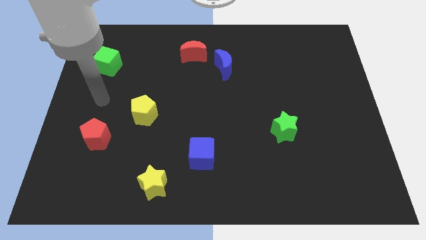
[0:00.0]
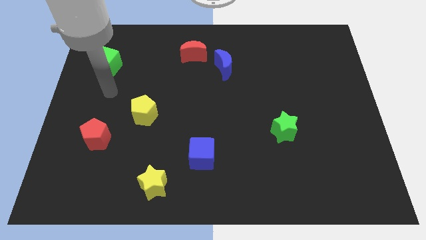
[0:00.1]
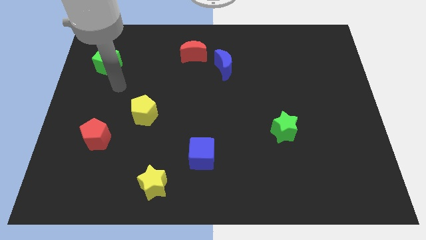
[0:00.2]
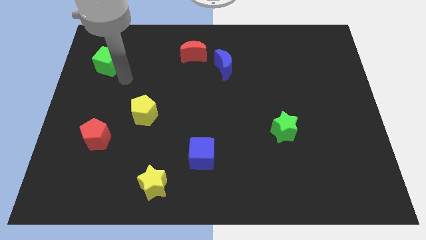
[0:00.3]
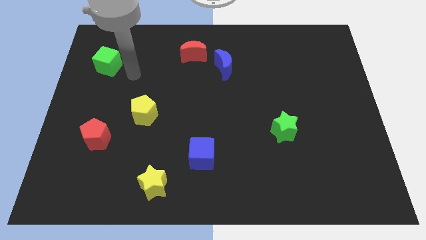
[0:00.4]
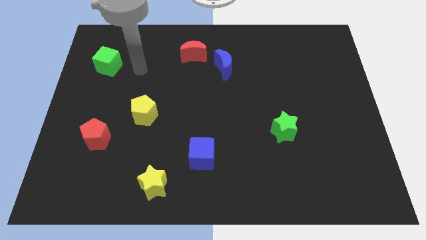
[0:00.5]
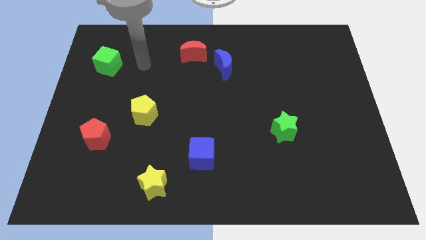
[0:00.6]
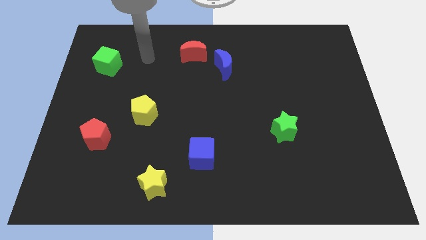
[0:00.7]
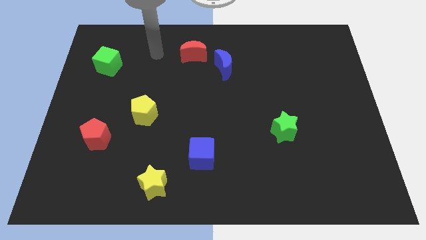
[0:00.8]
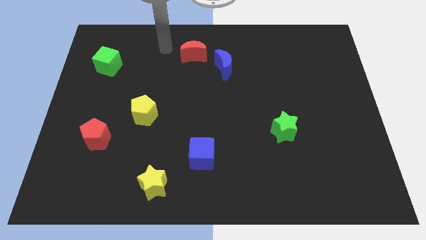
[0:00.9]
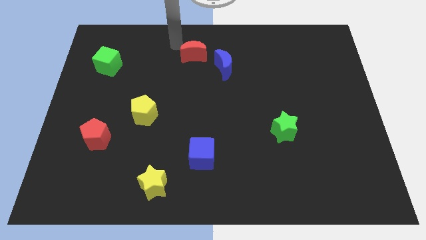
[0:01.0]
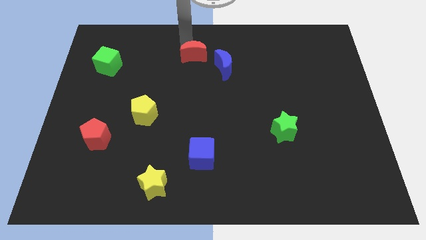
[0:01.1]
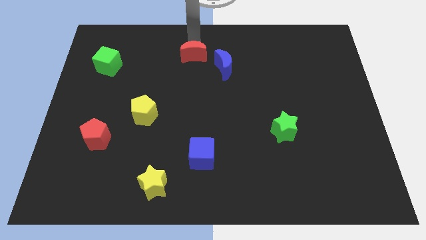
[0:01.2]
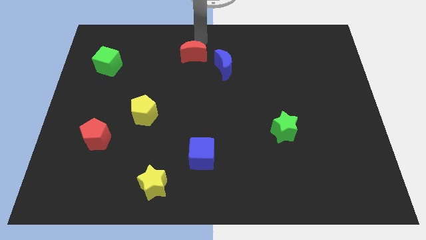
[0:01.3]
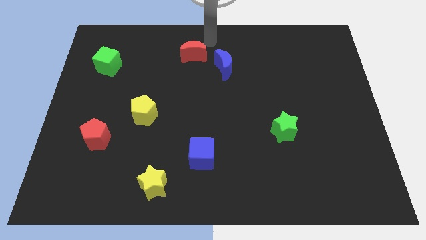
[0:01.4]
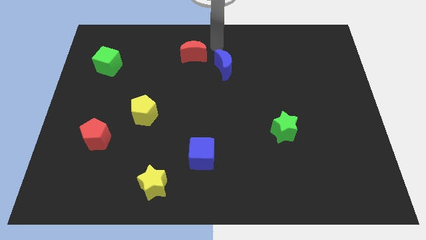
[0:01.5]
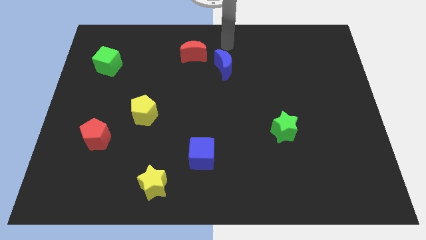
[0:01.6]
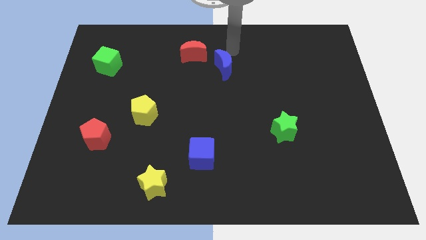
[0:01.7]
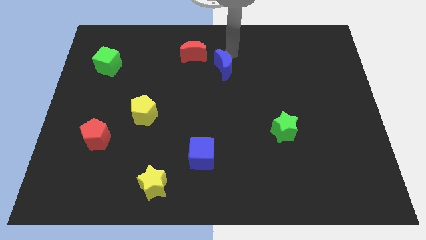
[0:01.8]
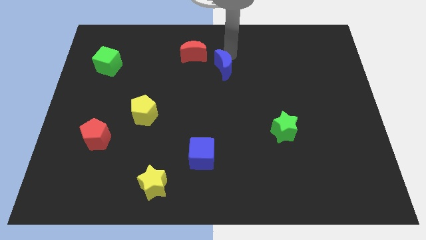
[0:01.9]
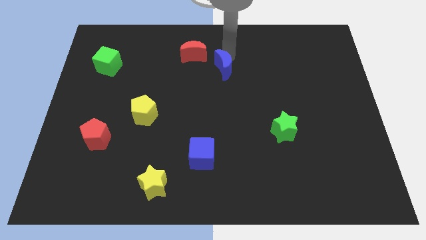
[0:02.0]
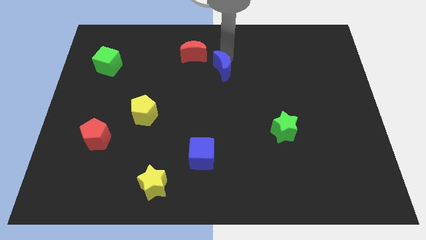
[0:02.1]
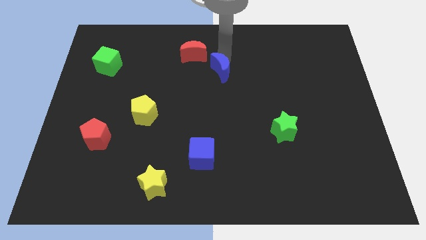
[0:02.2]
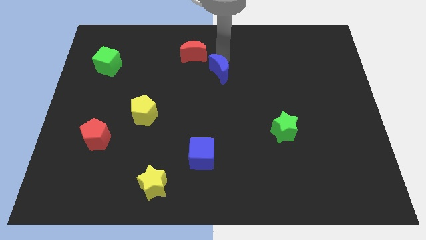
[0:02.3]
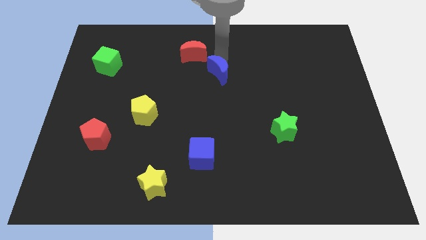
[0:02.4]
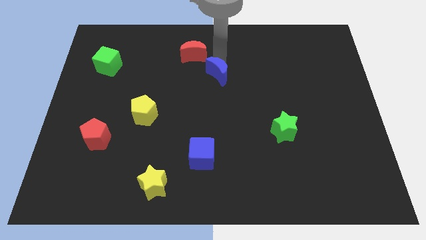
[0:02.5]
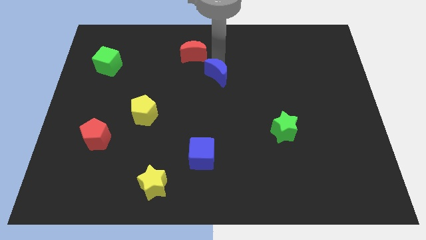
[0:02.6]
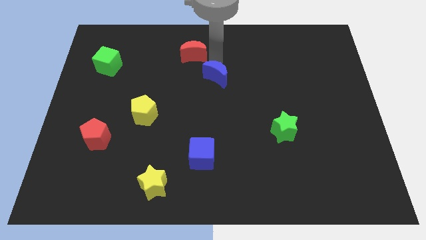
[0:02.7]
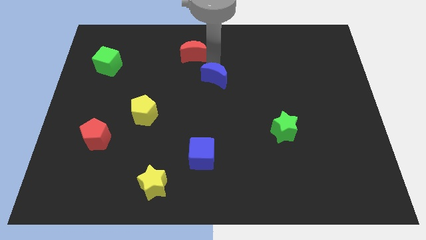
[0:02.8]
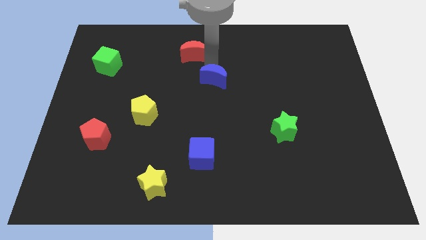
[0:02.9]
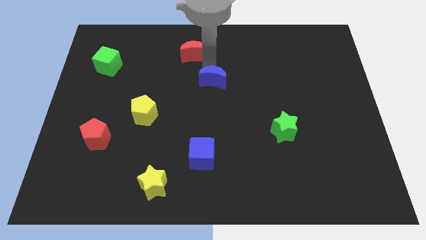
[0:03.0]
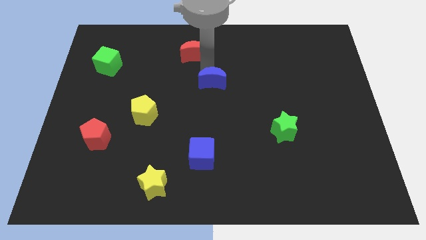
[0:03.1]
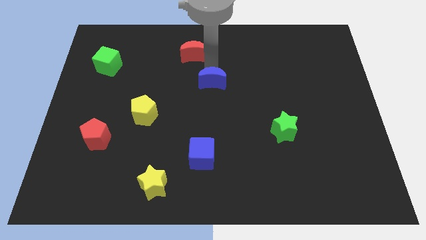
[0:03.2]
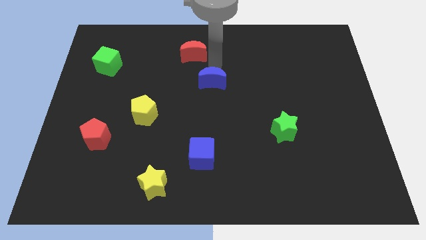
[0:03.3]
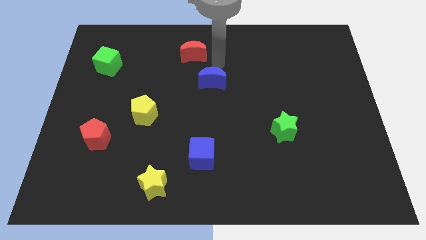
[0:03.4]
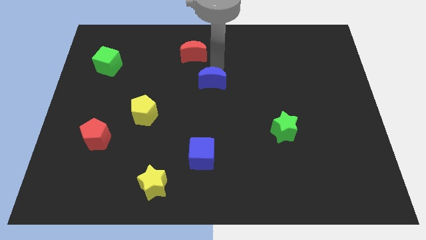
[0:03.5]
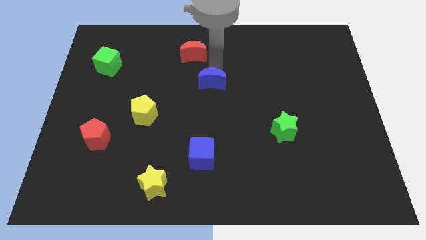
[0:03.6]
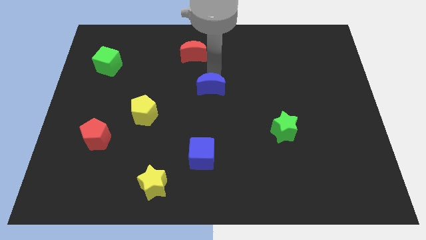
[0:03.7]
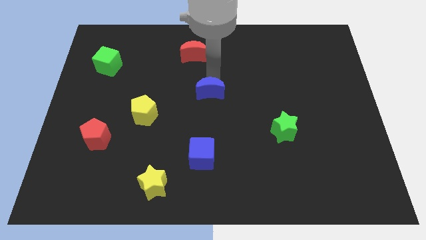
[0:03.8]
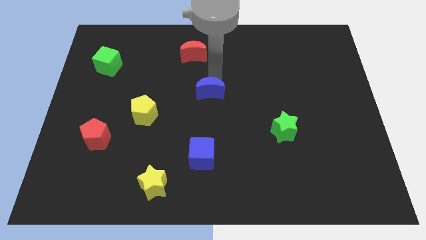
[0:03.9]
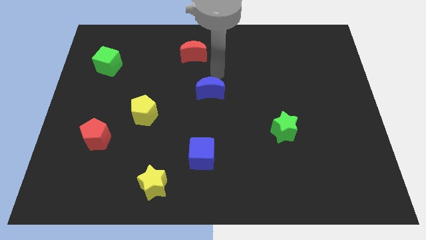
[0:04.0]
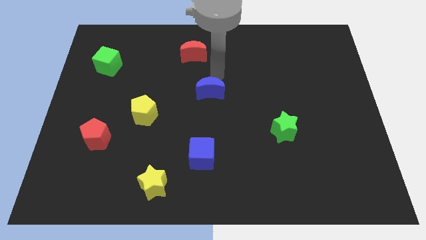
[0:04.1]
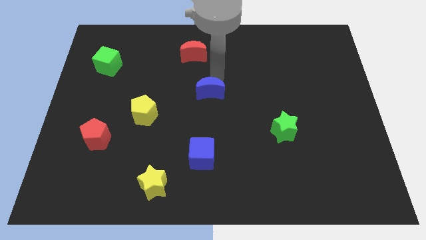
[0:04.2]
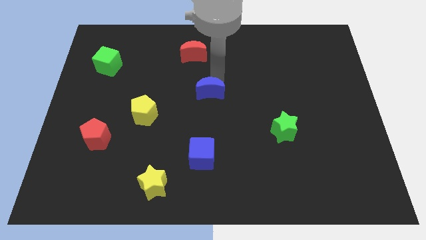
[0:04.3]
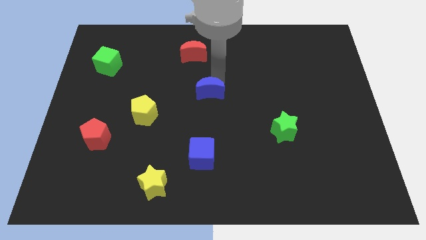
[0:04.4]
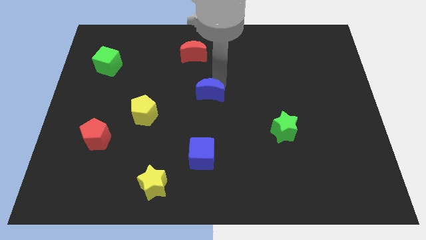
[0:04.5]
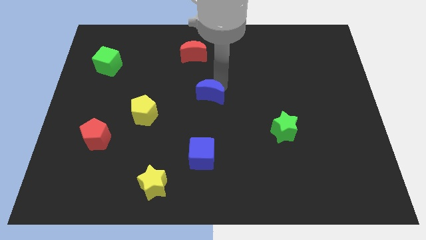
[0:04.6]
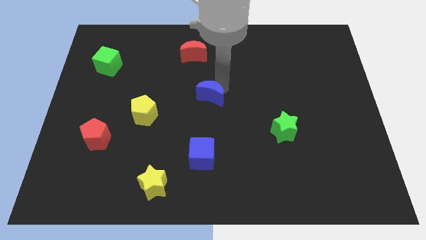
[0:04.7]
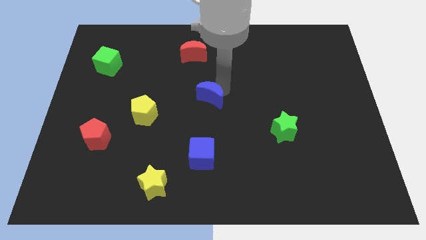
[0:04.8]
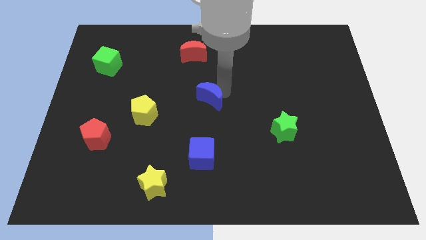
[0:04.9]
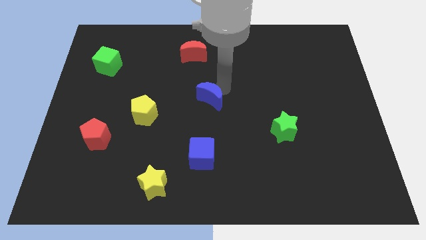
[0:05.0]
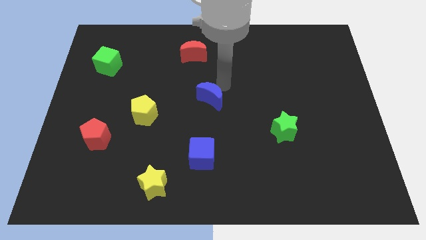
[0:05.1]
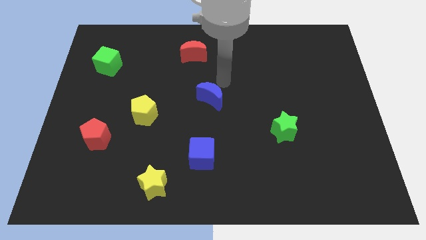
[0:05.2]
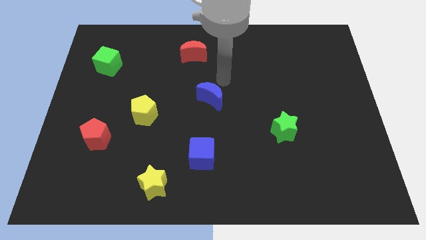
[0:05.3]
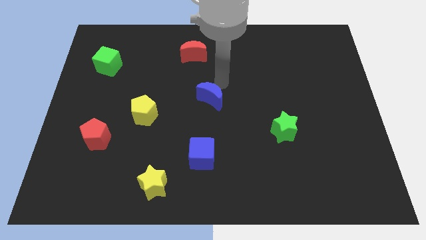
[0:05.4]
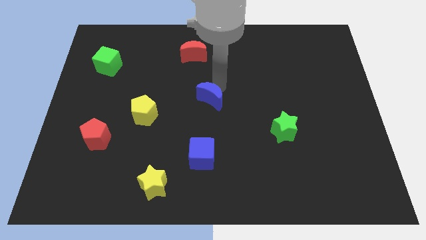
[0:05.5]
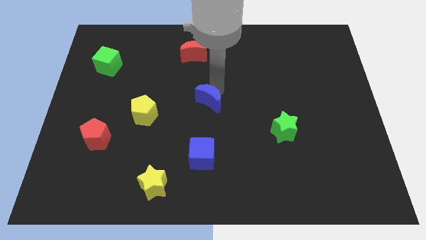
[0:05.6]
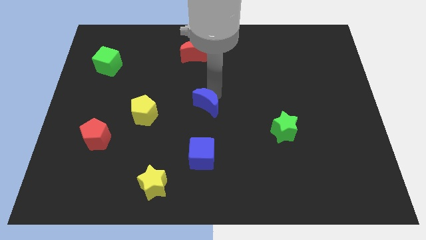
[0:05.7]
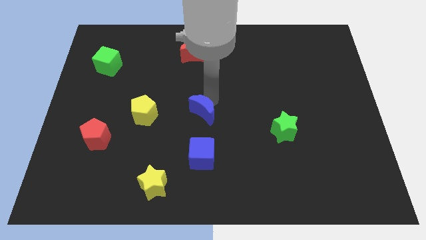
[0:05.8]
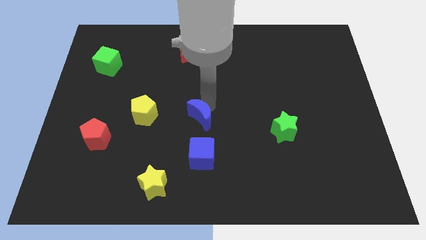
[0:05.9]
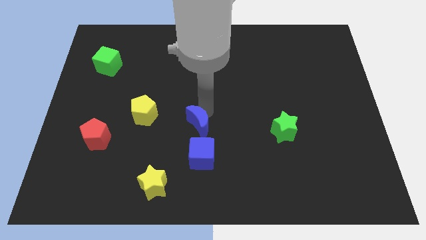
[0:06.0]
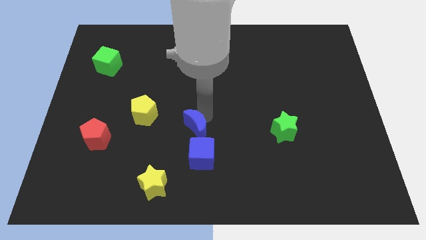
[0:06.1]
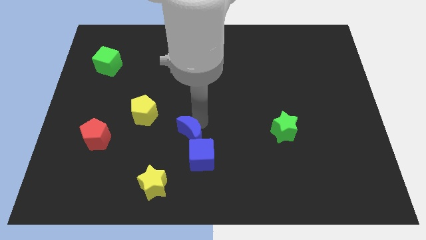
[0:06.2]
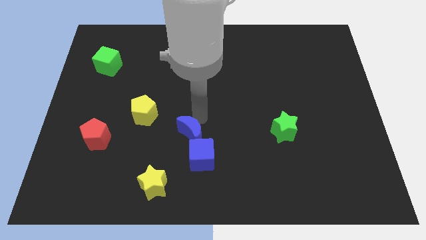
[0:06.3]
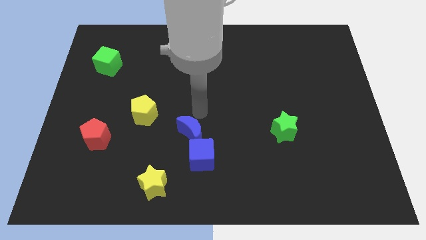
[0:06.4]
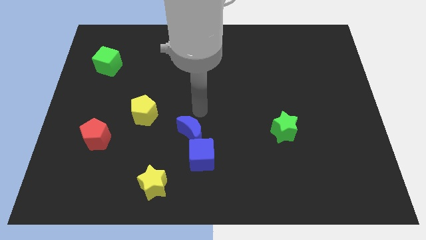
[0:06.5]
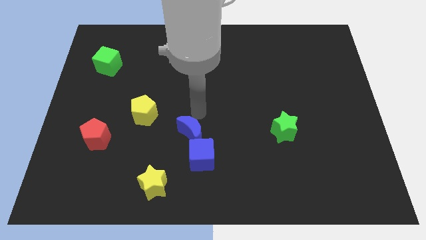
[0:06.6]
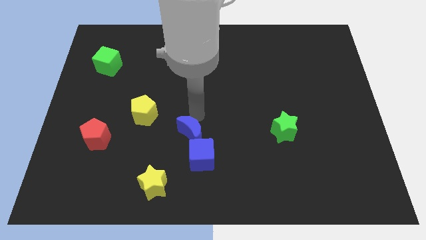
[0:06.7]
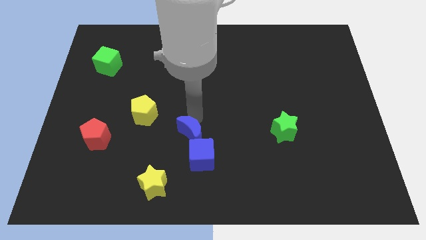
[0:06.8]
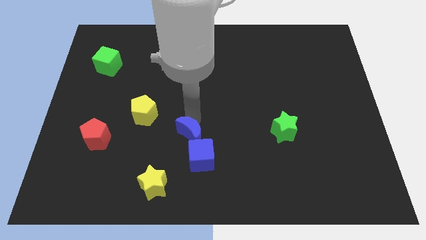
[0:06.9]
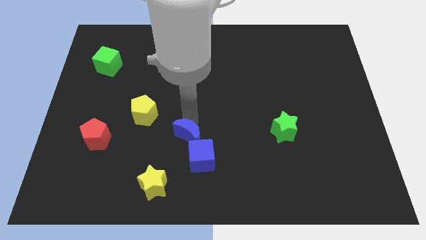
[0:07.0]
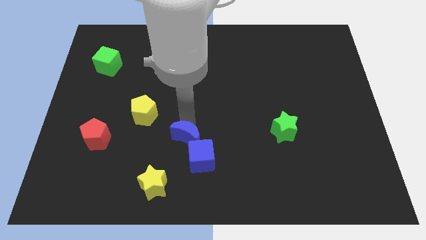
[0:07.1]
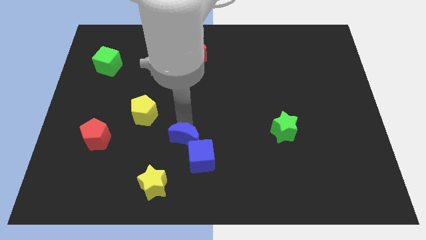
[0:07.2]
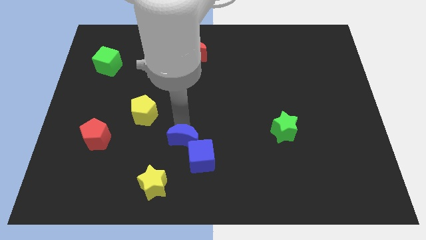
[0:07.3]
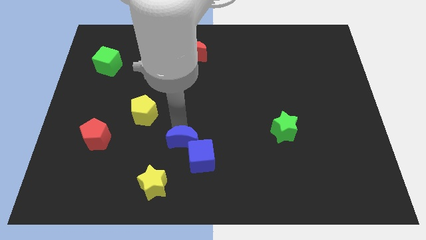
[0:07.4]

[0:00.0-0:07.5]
push the blue moon to the top right side of the yellow star
